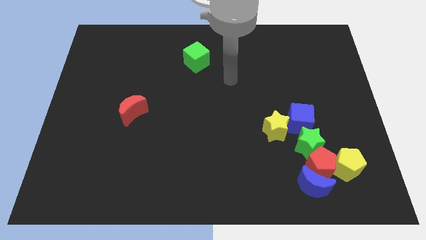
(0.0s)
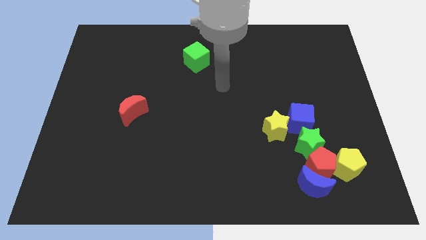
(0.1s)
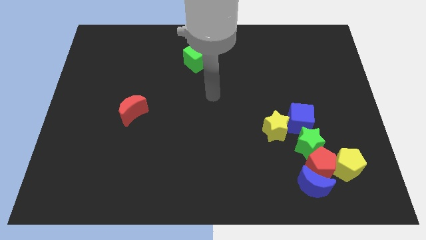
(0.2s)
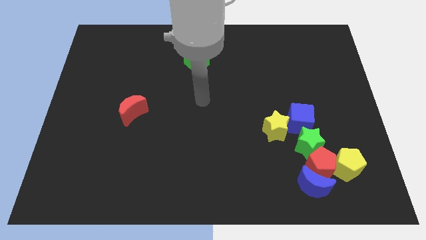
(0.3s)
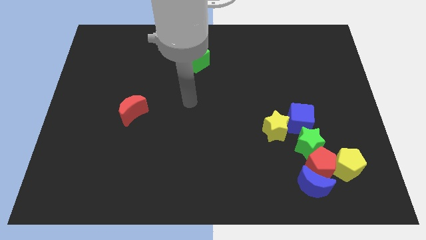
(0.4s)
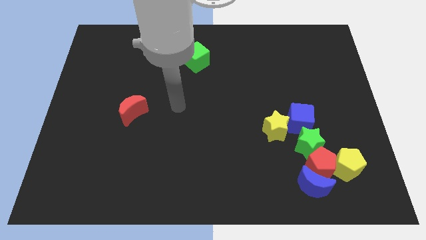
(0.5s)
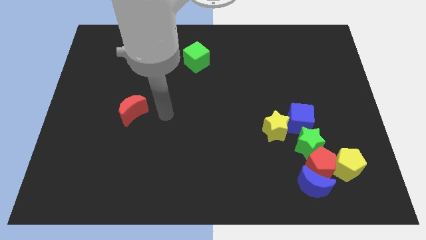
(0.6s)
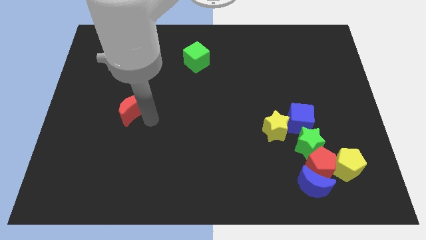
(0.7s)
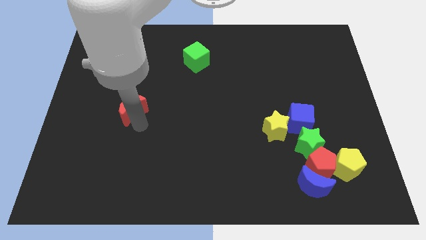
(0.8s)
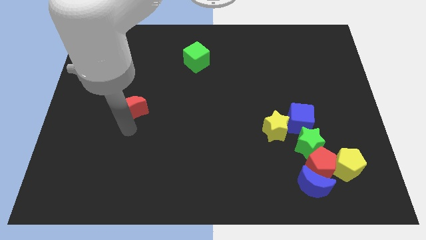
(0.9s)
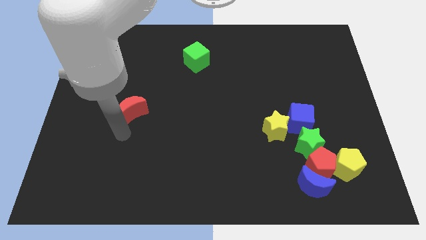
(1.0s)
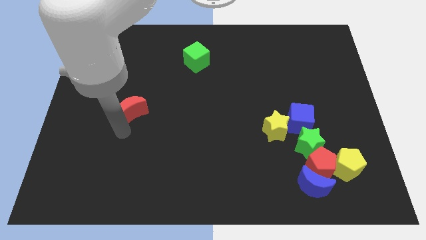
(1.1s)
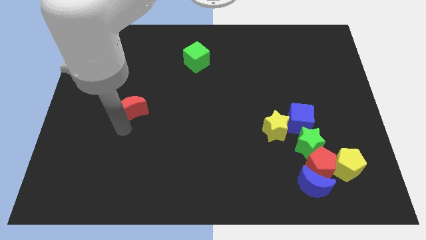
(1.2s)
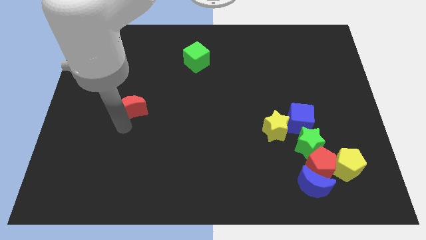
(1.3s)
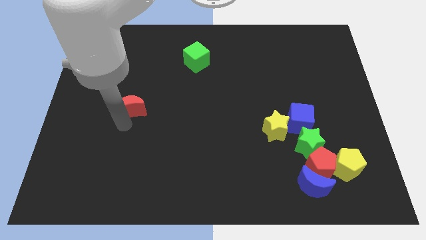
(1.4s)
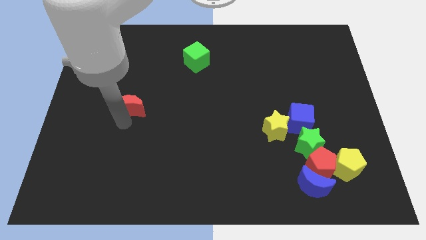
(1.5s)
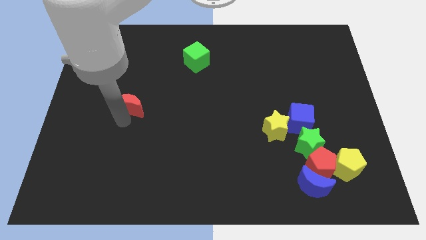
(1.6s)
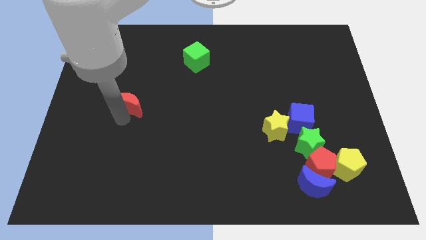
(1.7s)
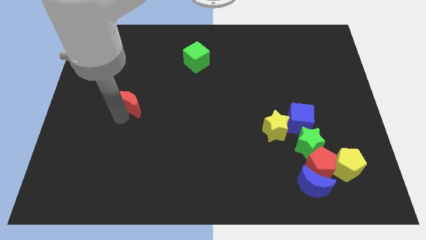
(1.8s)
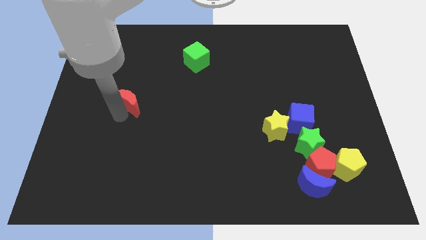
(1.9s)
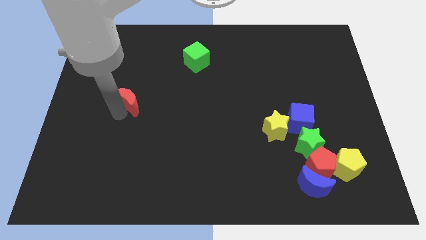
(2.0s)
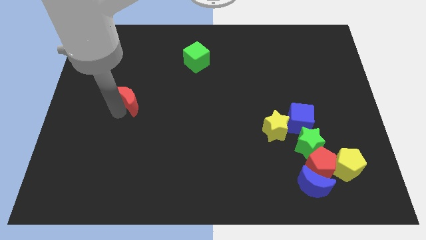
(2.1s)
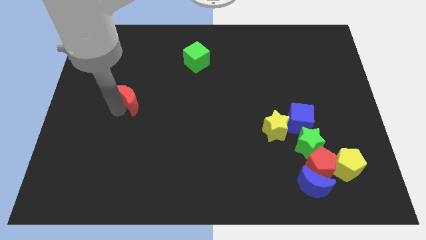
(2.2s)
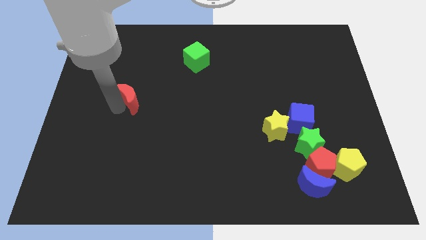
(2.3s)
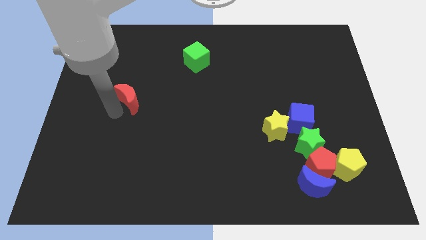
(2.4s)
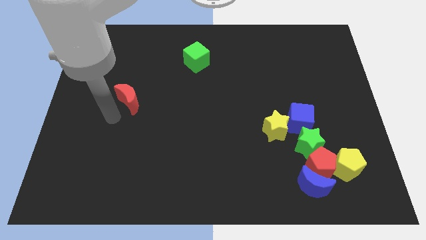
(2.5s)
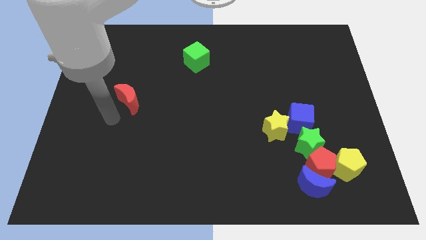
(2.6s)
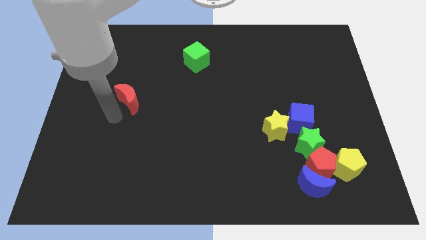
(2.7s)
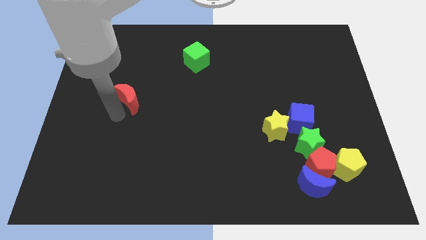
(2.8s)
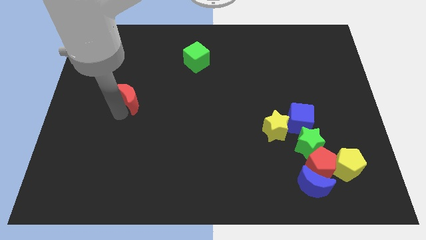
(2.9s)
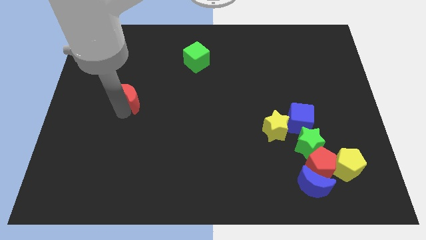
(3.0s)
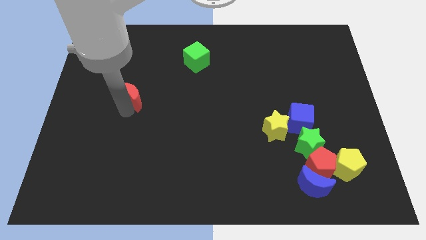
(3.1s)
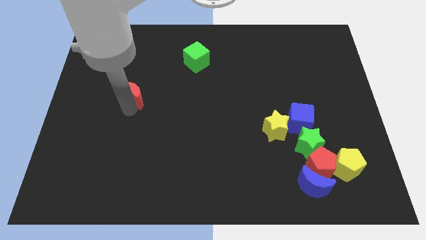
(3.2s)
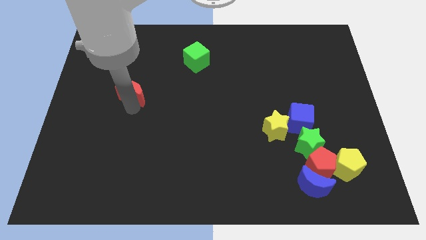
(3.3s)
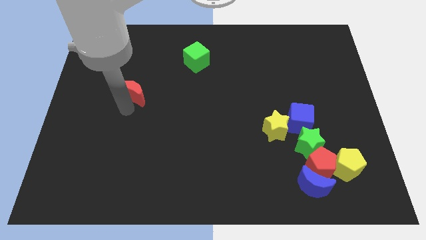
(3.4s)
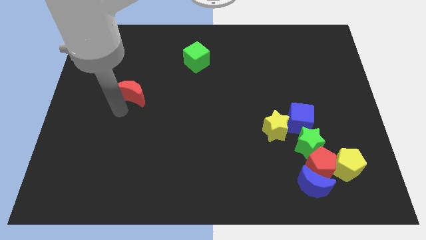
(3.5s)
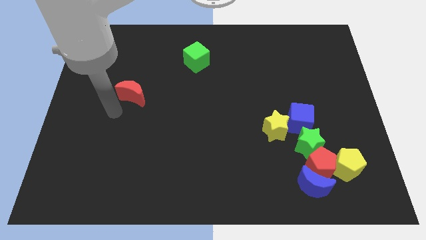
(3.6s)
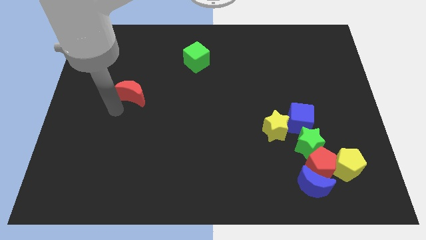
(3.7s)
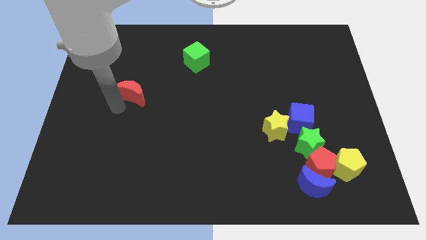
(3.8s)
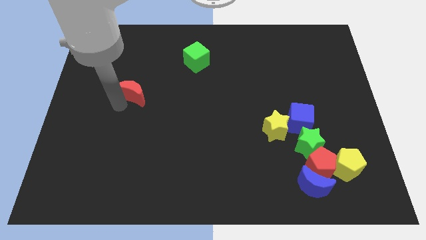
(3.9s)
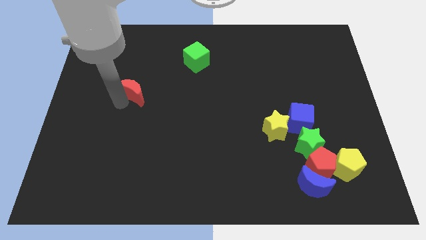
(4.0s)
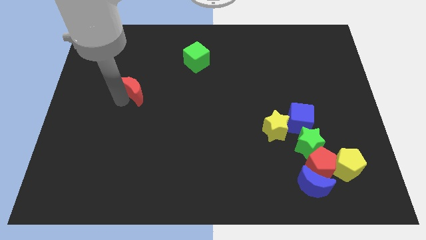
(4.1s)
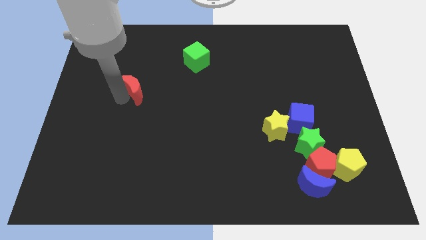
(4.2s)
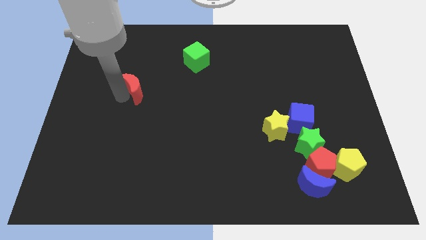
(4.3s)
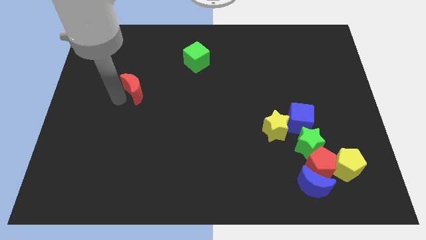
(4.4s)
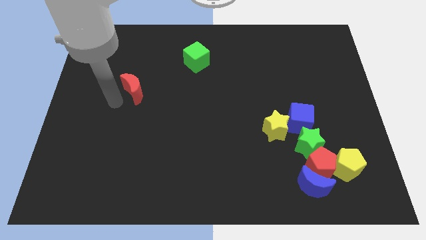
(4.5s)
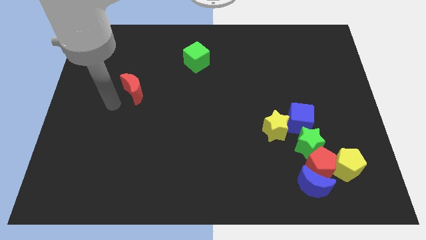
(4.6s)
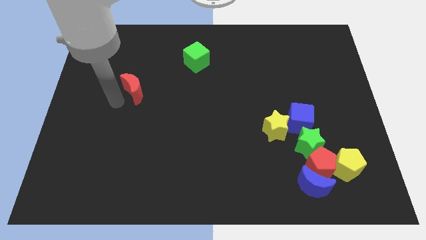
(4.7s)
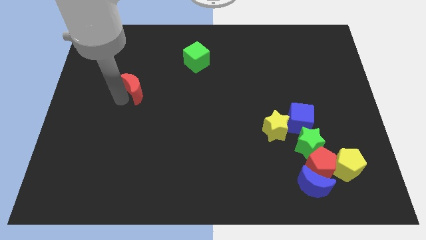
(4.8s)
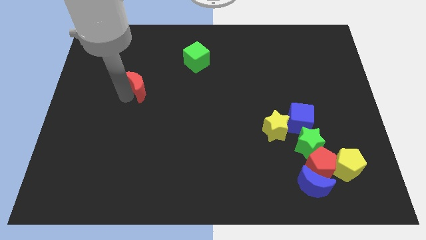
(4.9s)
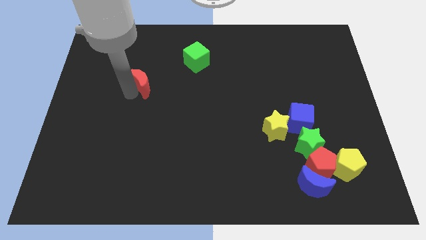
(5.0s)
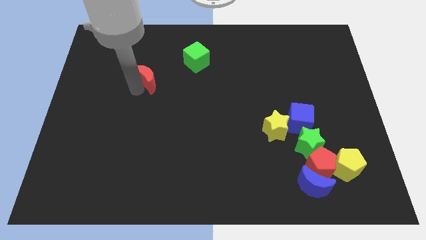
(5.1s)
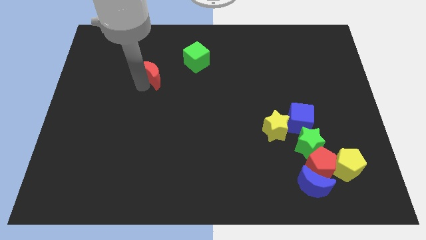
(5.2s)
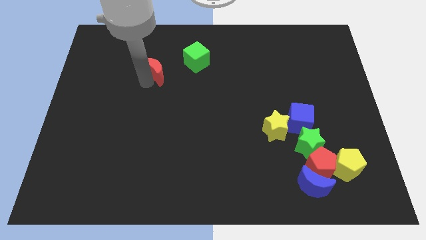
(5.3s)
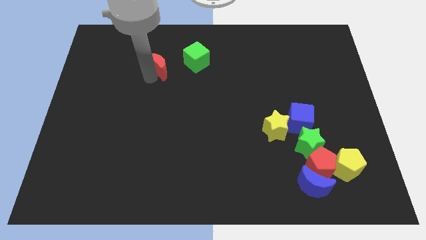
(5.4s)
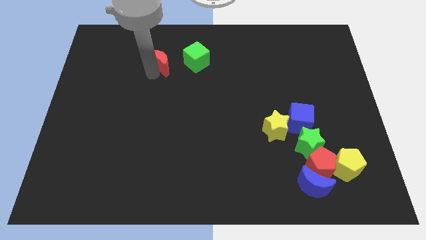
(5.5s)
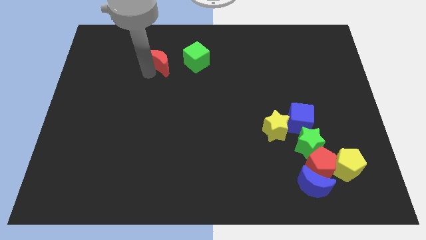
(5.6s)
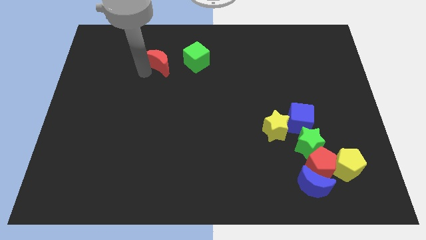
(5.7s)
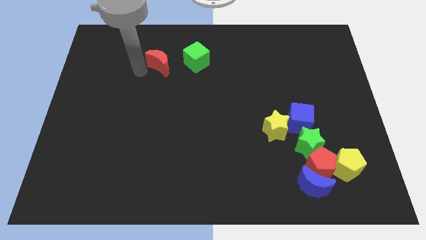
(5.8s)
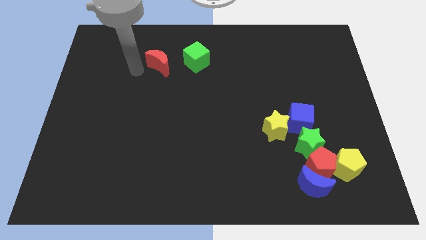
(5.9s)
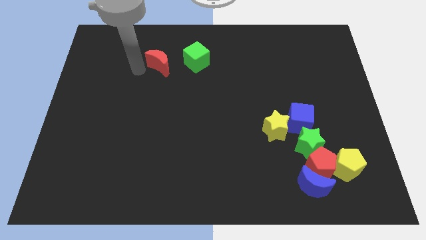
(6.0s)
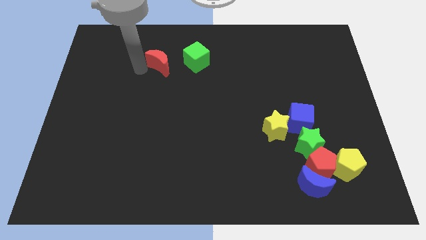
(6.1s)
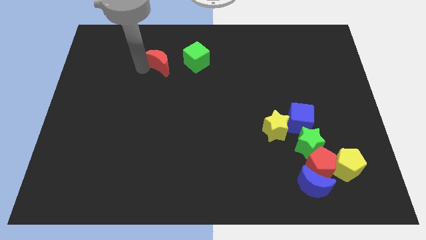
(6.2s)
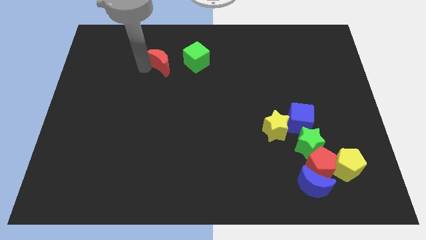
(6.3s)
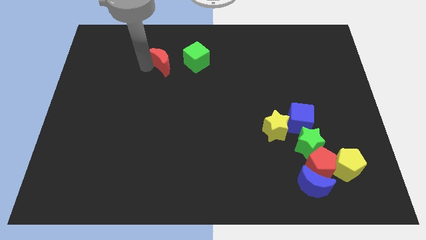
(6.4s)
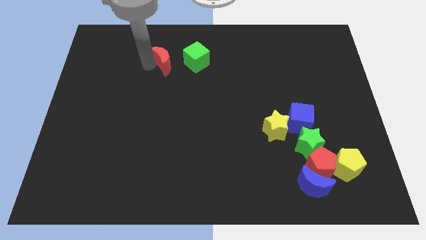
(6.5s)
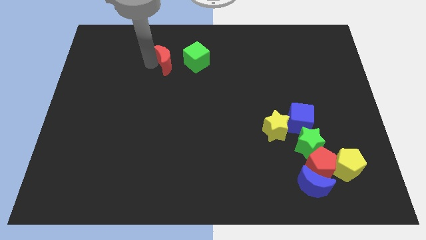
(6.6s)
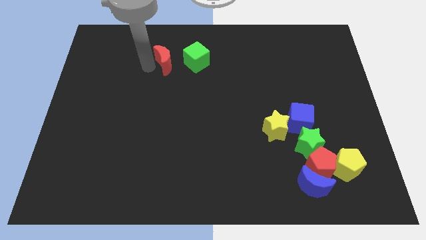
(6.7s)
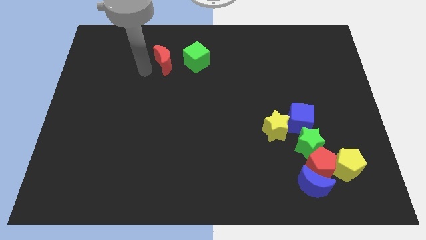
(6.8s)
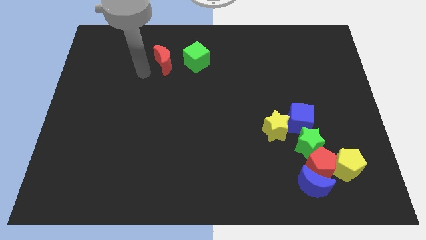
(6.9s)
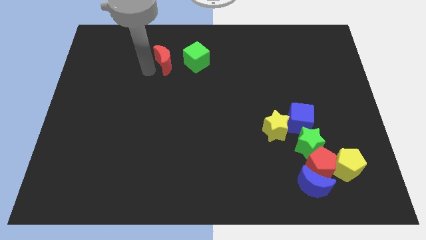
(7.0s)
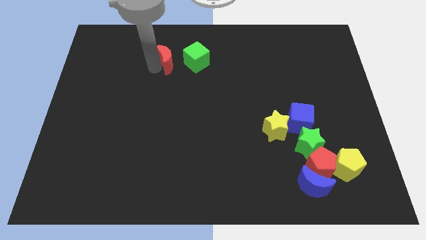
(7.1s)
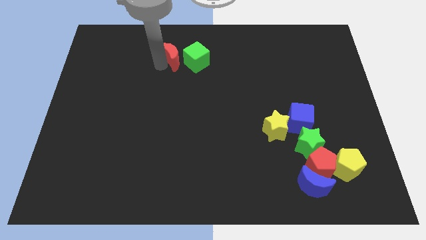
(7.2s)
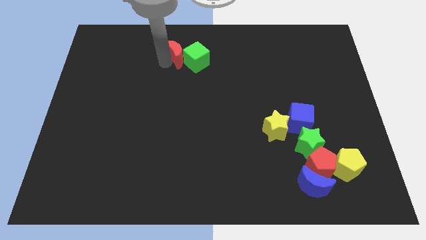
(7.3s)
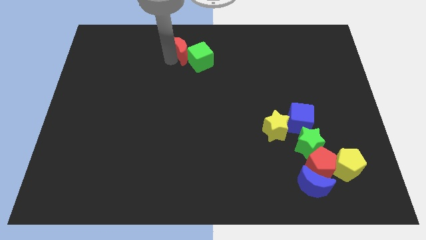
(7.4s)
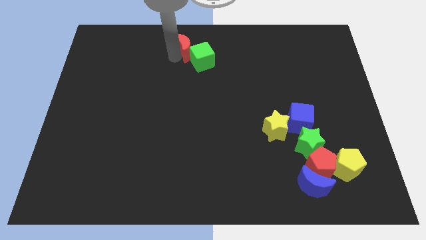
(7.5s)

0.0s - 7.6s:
push the red moon to the top
